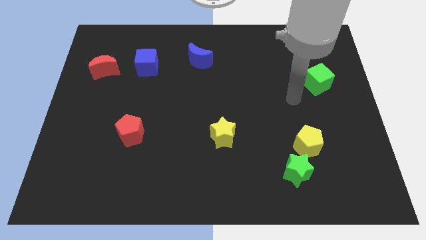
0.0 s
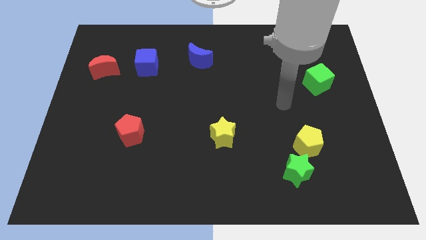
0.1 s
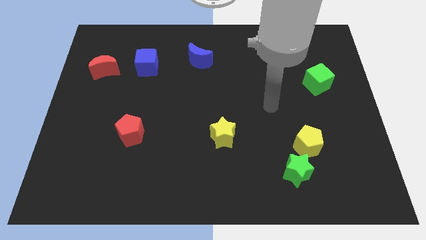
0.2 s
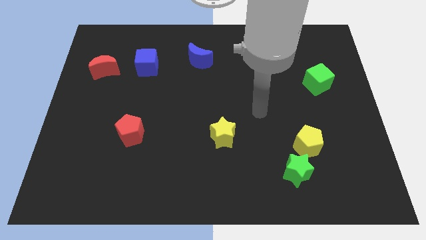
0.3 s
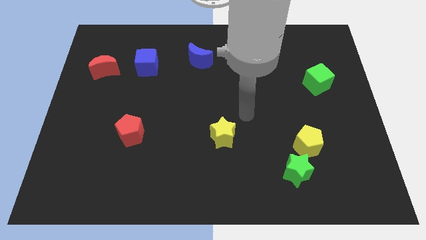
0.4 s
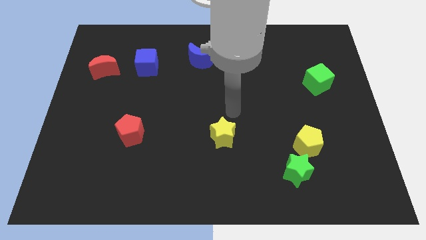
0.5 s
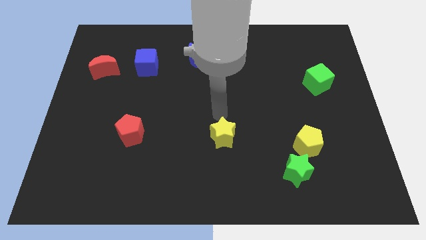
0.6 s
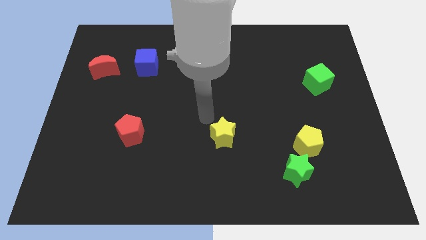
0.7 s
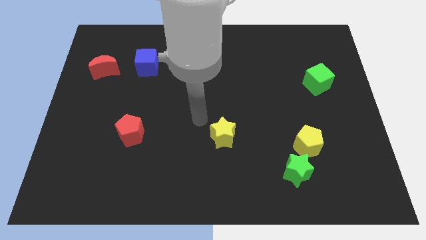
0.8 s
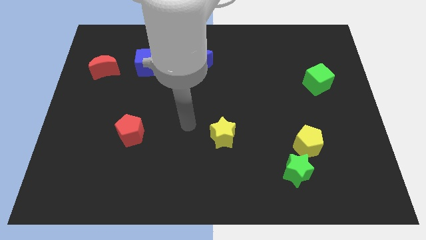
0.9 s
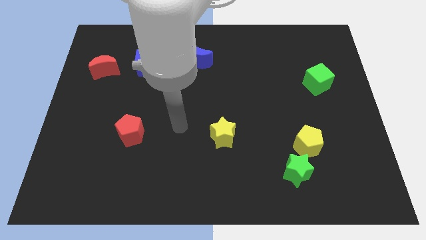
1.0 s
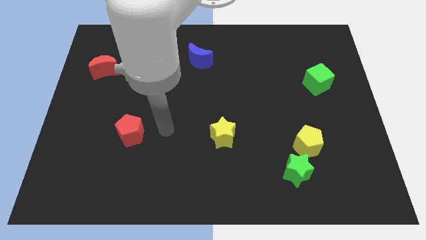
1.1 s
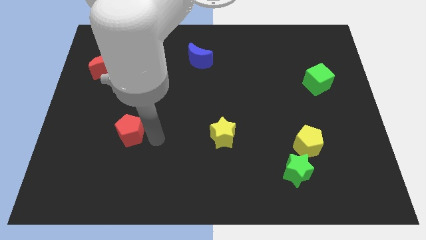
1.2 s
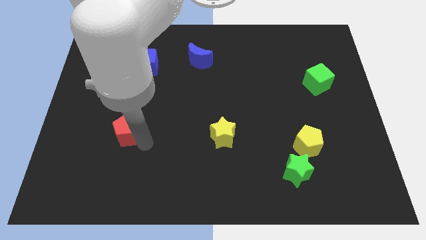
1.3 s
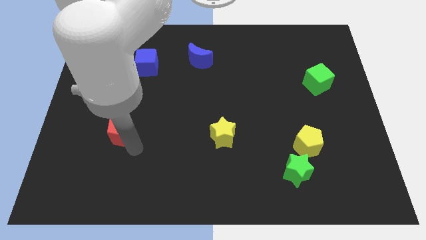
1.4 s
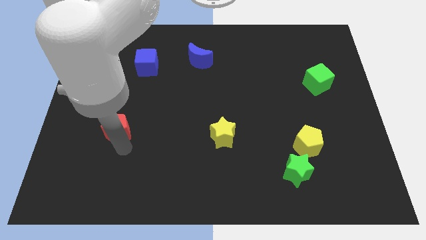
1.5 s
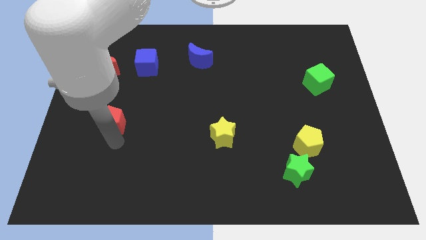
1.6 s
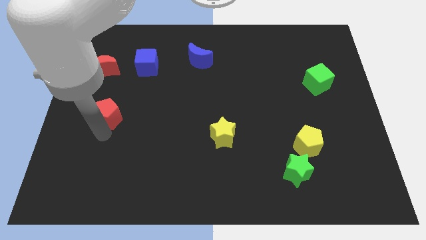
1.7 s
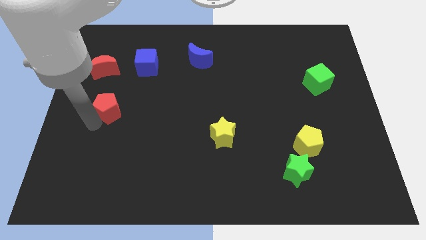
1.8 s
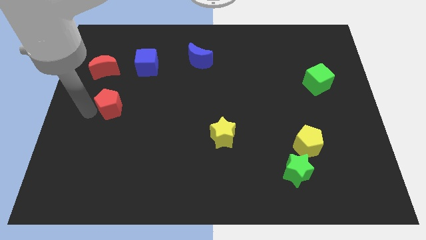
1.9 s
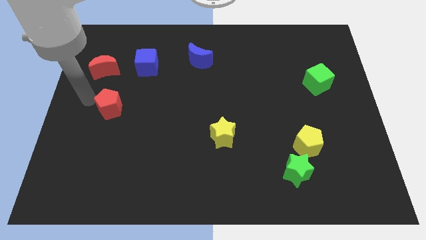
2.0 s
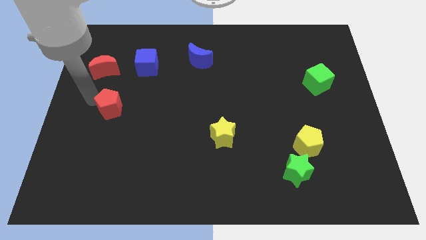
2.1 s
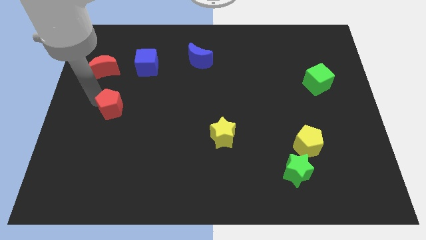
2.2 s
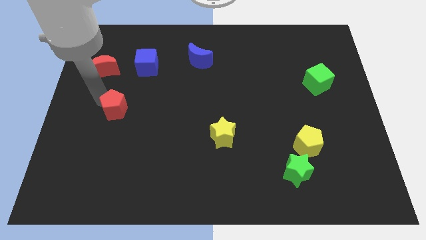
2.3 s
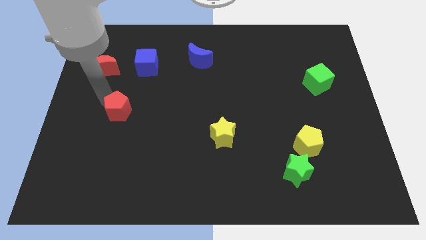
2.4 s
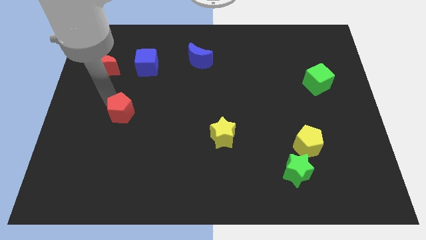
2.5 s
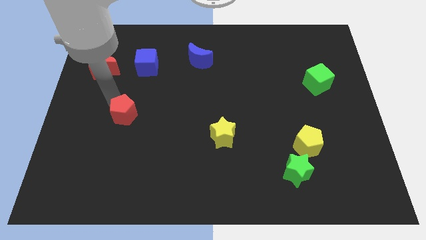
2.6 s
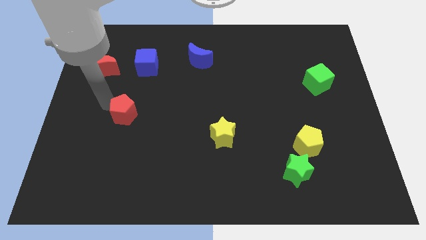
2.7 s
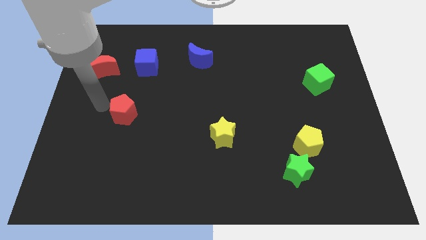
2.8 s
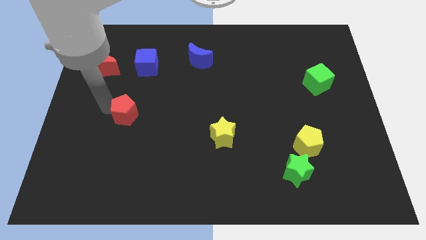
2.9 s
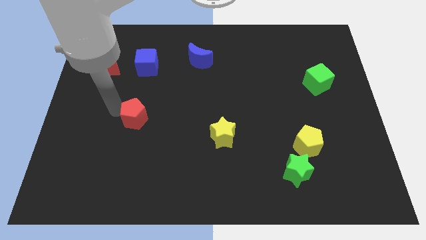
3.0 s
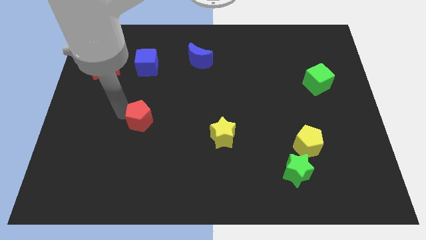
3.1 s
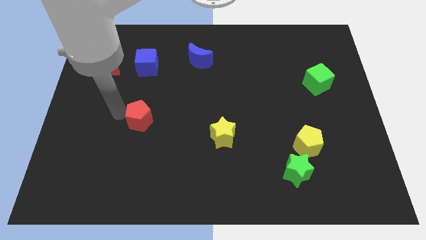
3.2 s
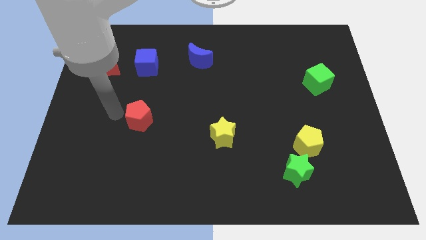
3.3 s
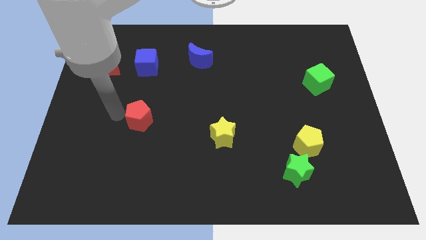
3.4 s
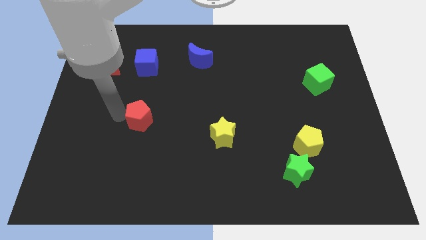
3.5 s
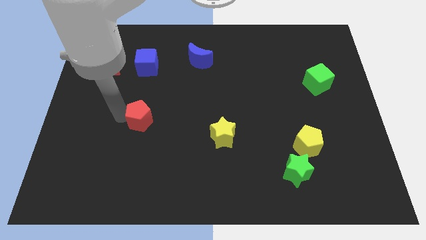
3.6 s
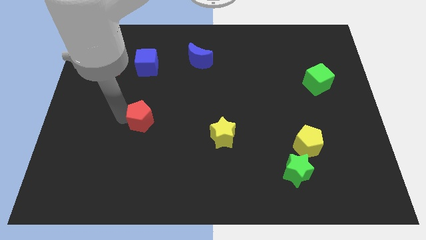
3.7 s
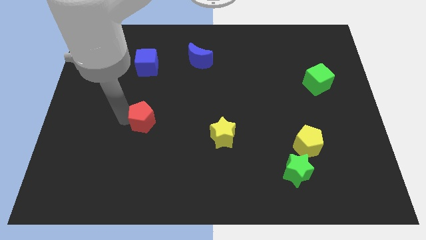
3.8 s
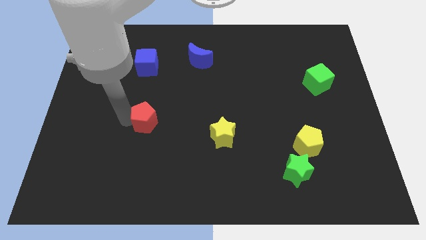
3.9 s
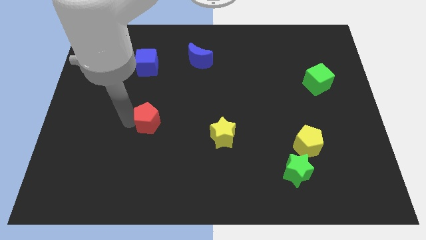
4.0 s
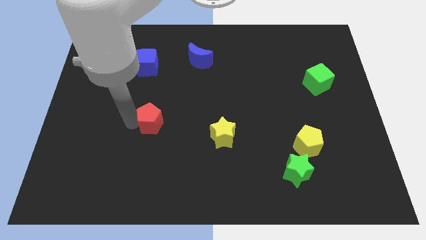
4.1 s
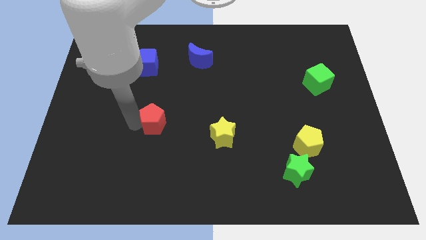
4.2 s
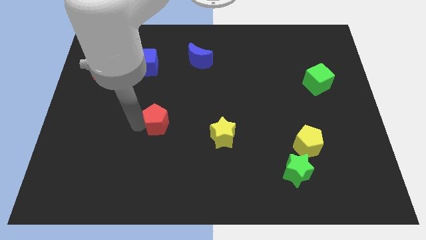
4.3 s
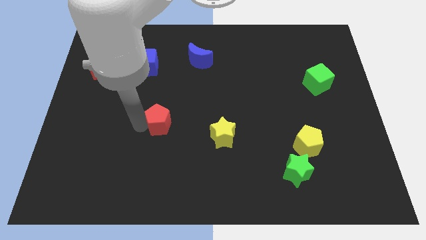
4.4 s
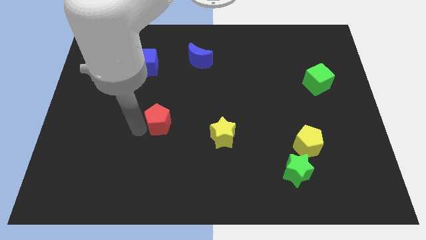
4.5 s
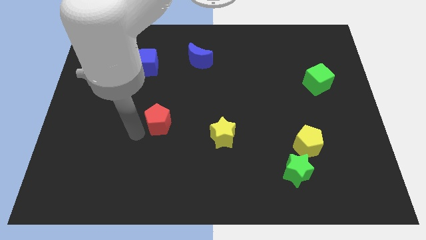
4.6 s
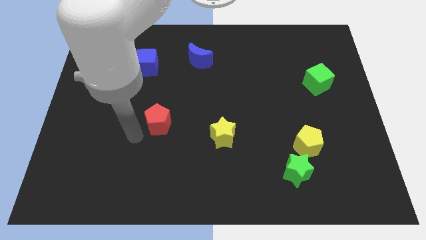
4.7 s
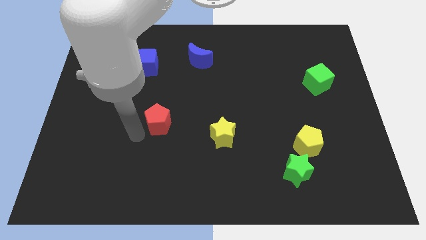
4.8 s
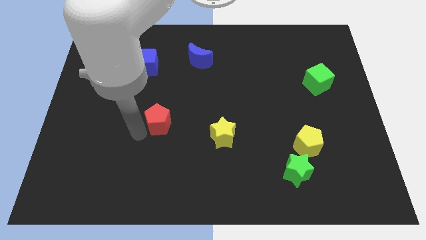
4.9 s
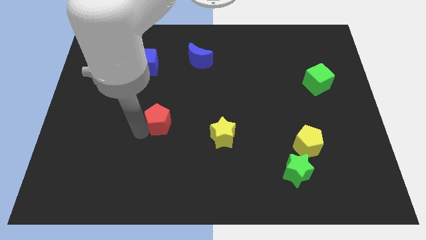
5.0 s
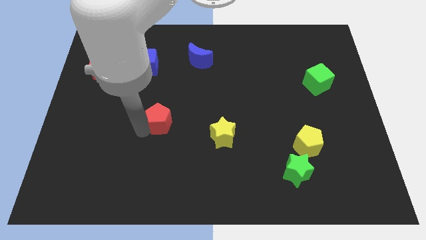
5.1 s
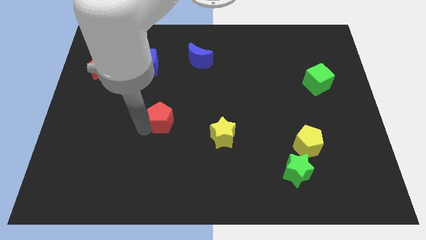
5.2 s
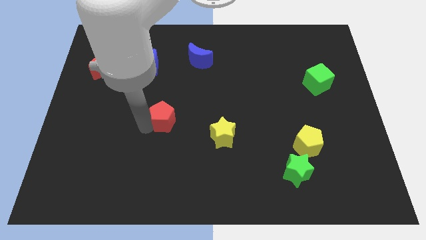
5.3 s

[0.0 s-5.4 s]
put the red pentagon to the middle

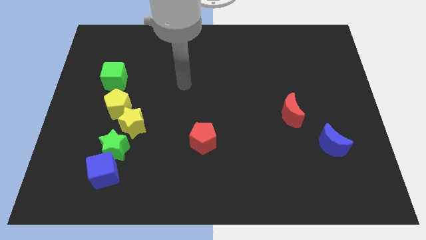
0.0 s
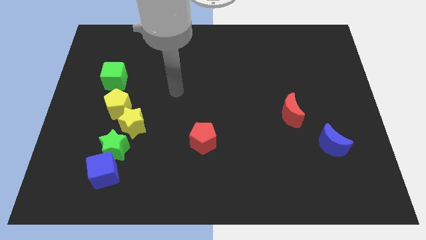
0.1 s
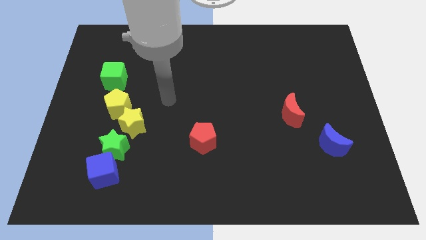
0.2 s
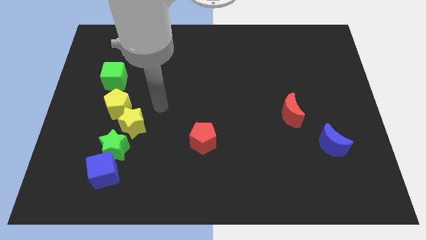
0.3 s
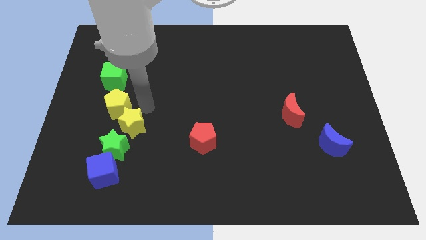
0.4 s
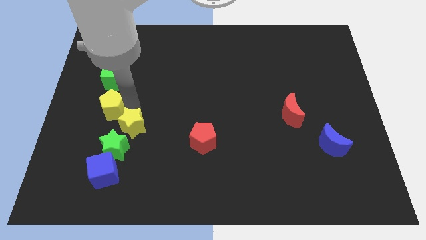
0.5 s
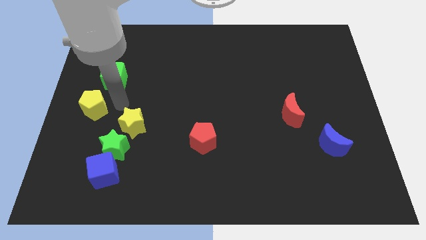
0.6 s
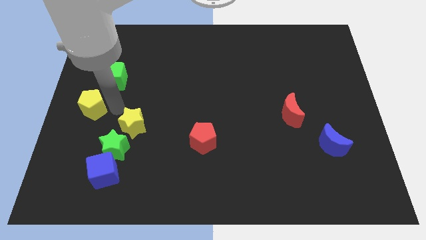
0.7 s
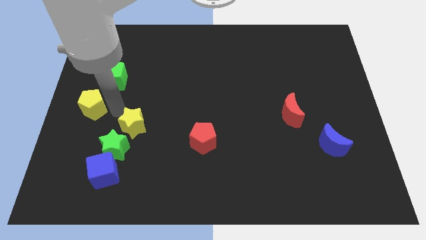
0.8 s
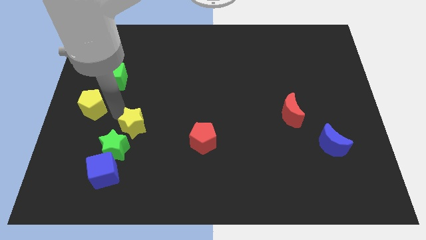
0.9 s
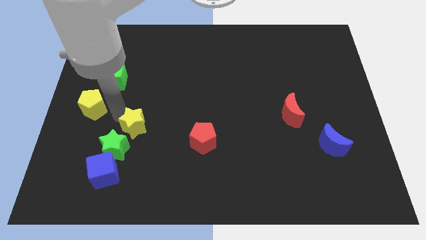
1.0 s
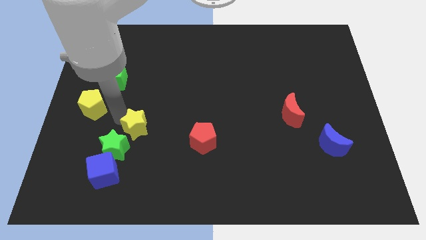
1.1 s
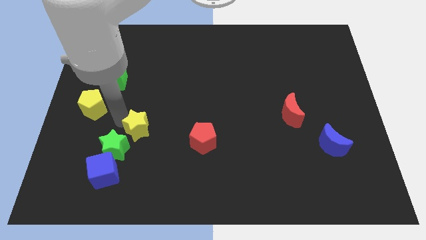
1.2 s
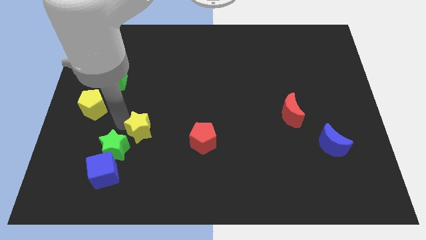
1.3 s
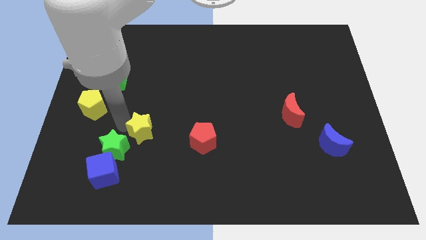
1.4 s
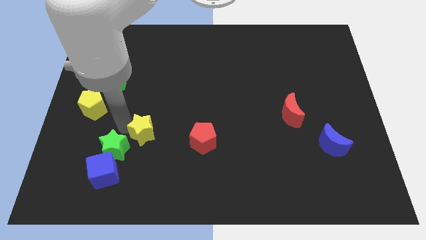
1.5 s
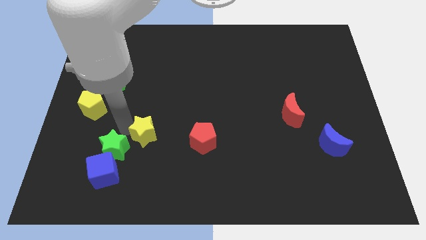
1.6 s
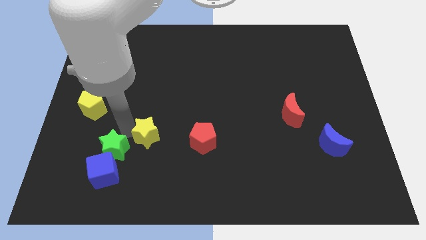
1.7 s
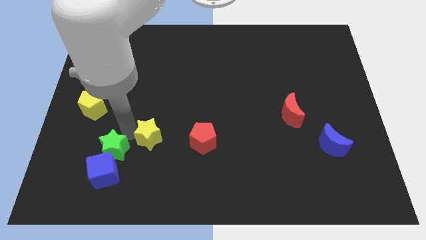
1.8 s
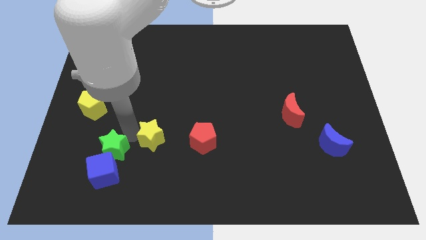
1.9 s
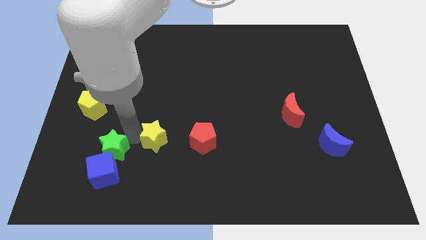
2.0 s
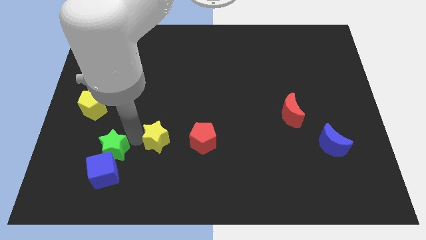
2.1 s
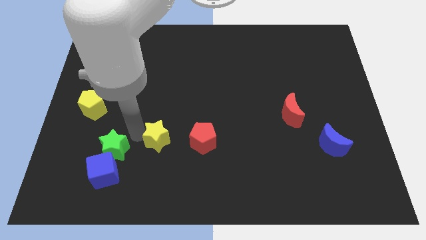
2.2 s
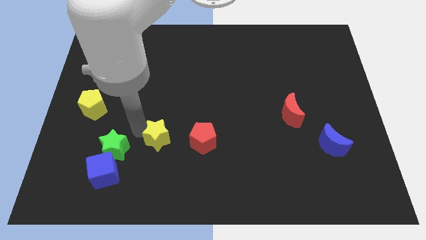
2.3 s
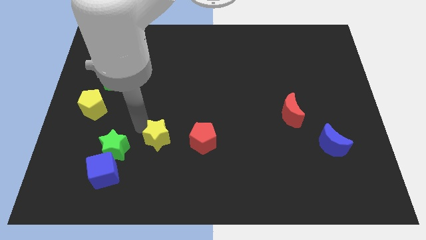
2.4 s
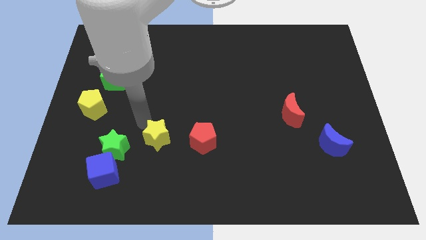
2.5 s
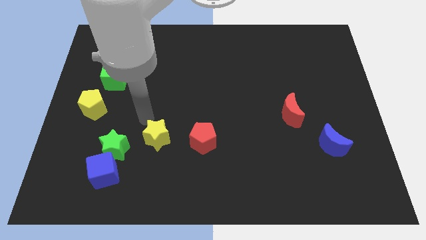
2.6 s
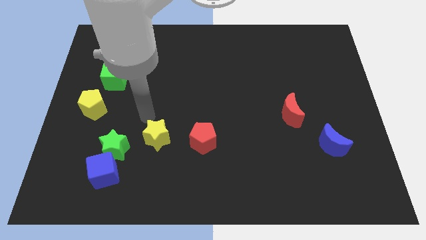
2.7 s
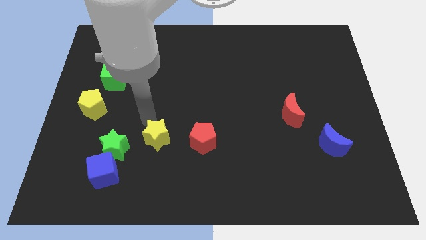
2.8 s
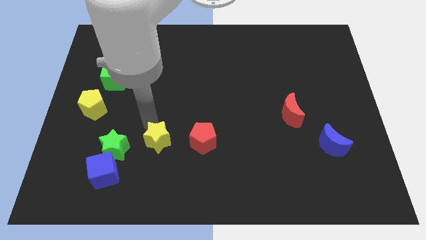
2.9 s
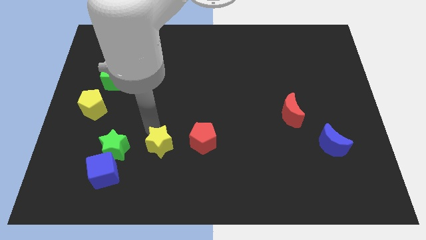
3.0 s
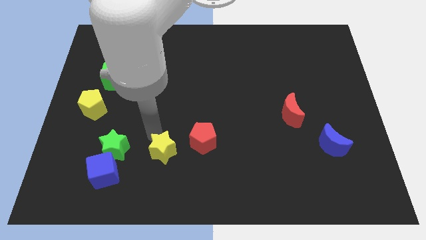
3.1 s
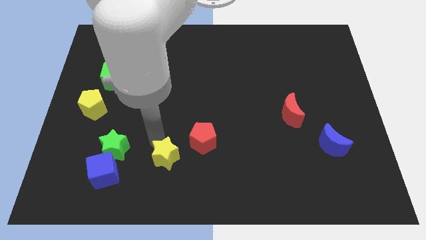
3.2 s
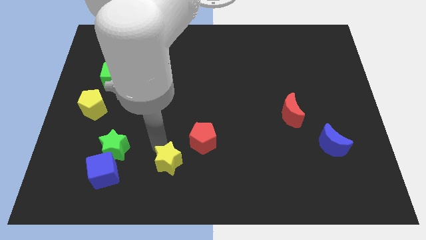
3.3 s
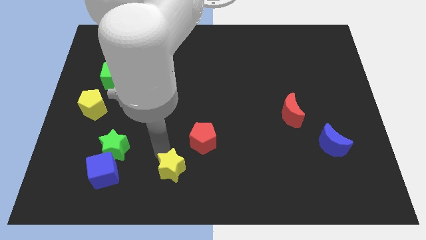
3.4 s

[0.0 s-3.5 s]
slide the yellow star to the bottom
